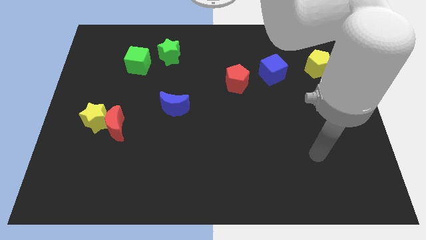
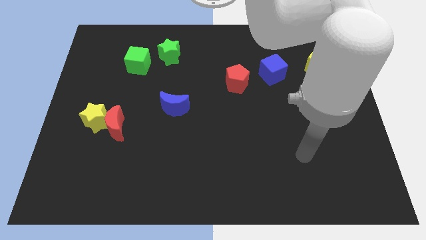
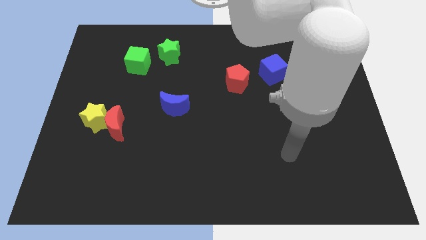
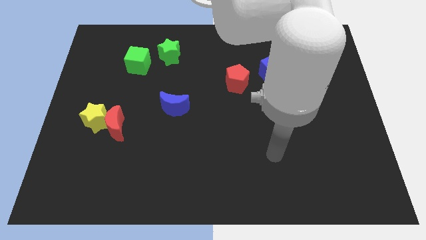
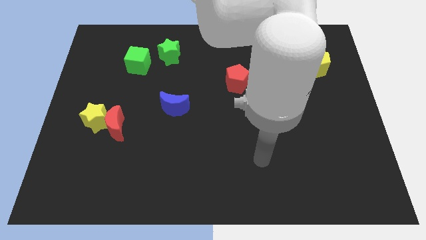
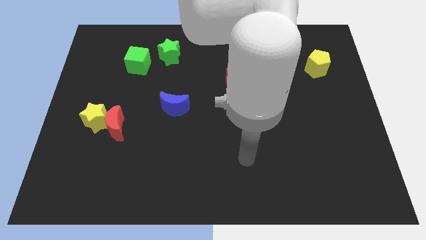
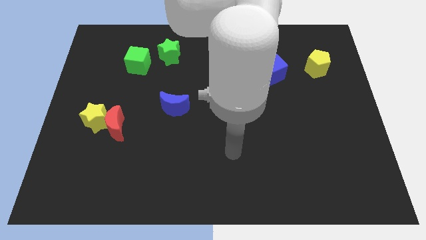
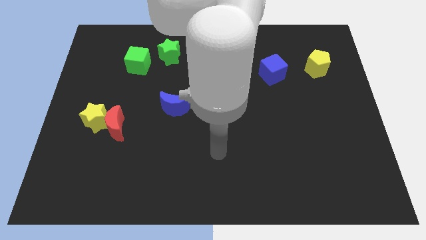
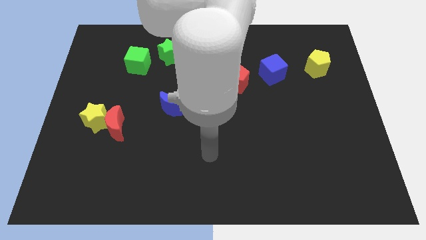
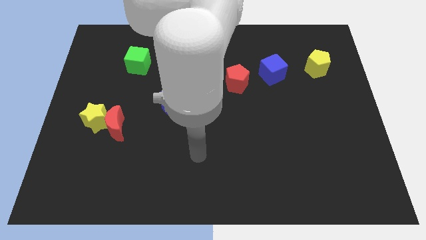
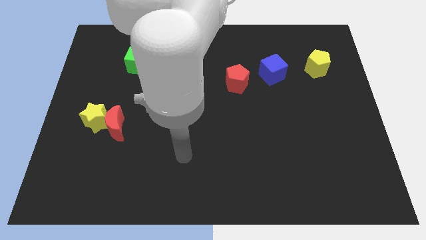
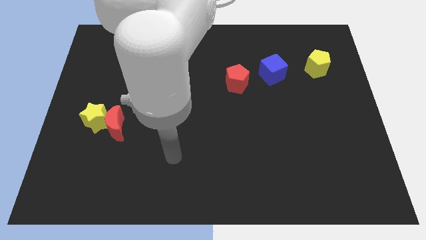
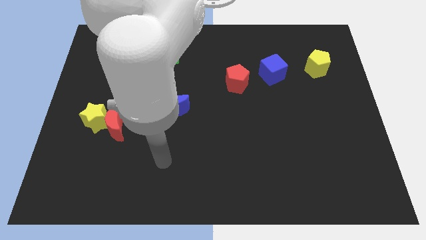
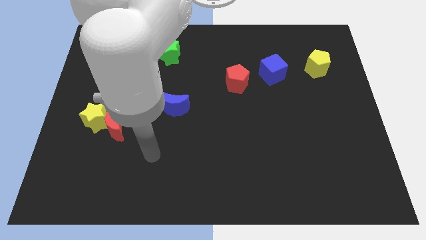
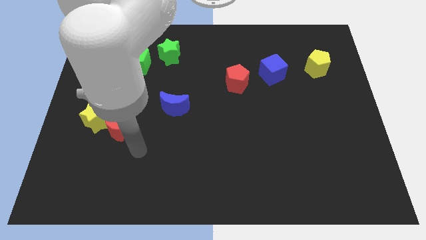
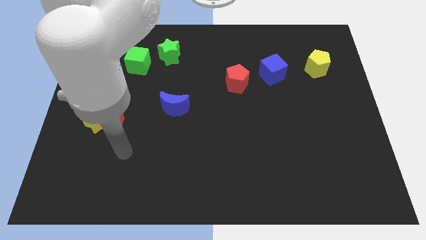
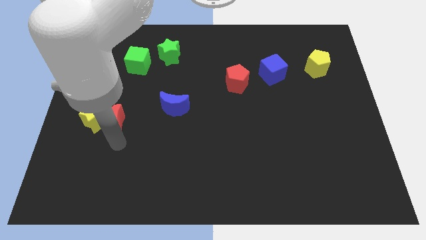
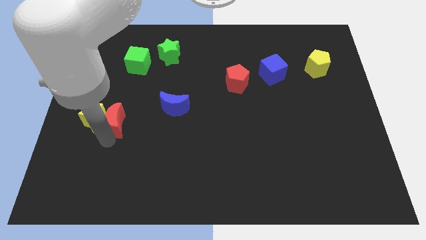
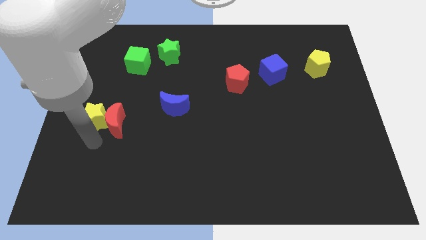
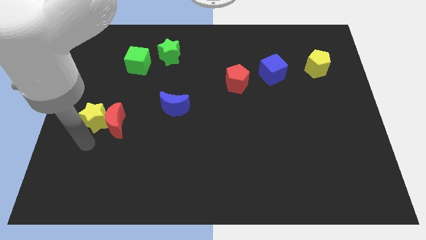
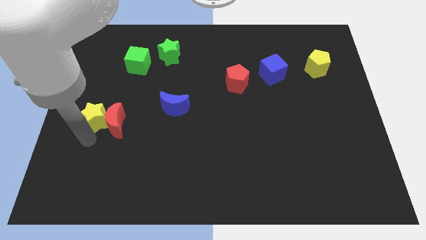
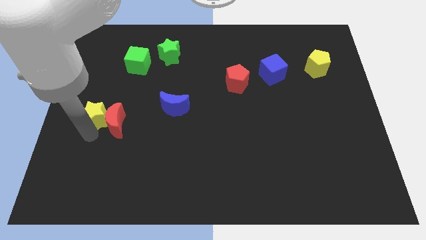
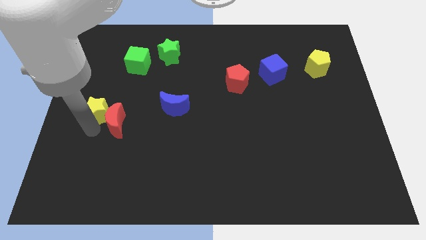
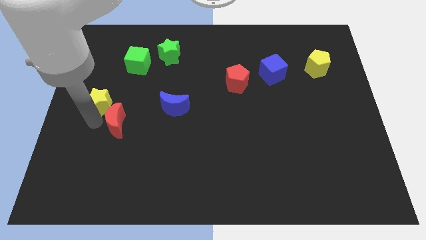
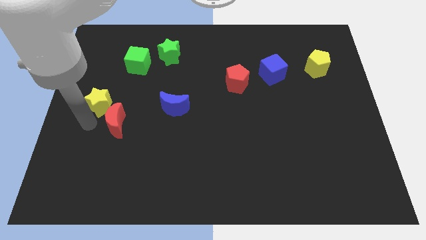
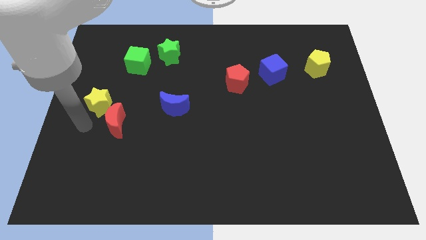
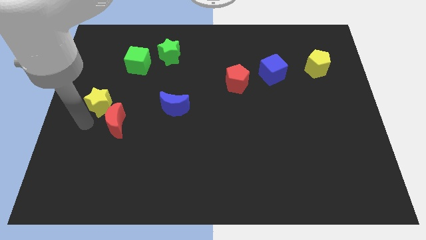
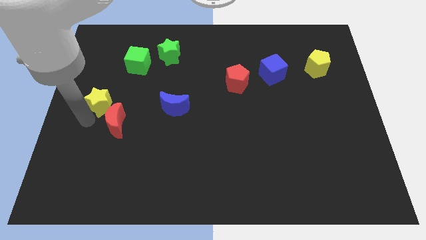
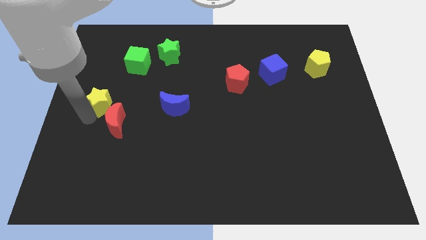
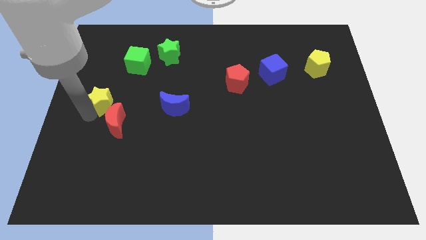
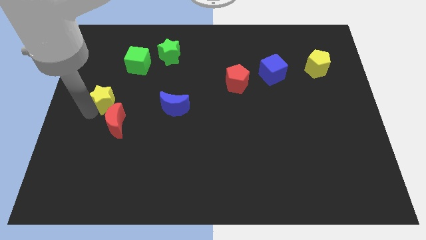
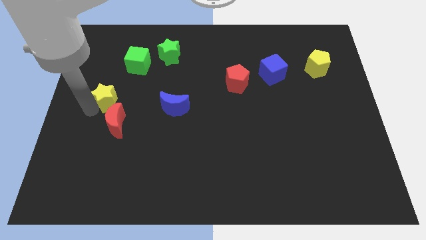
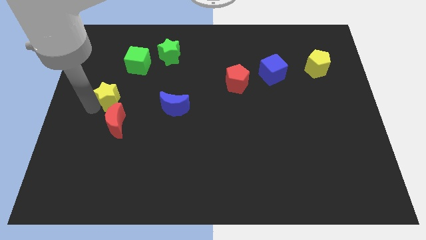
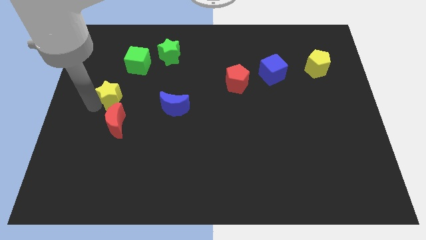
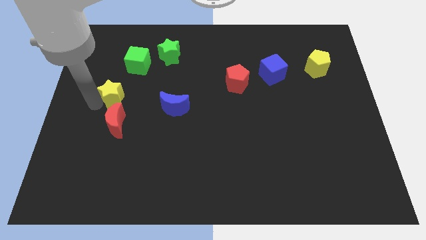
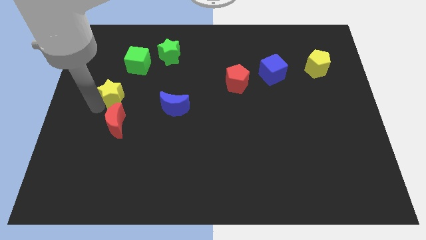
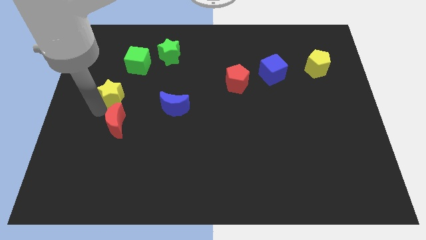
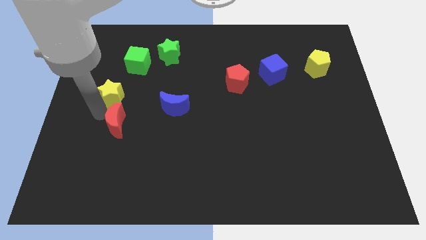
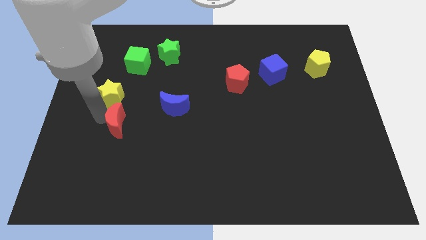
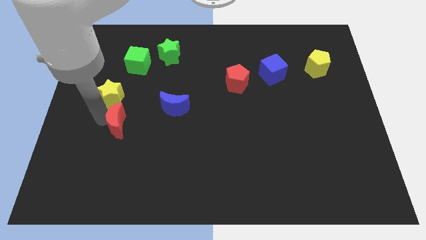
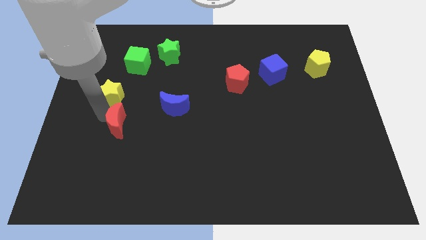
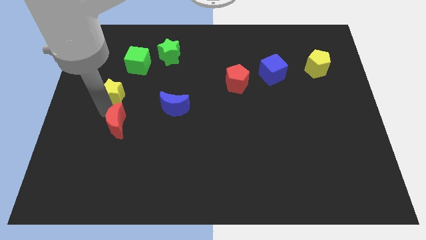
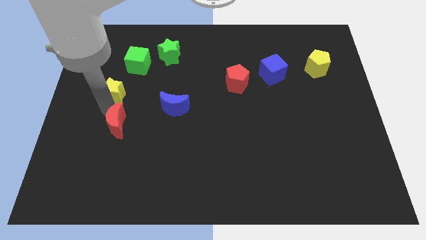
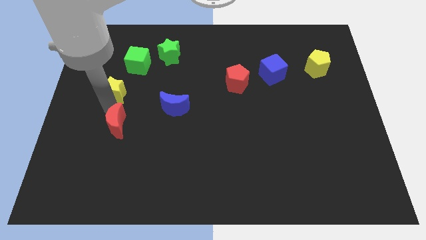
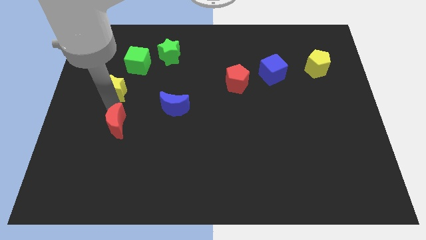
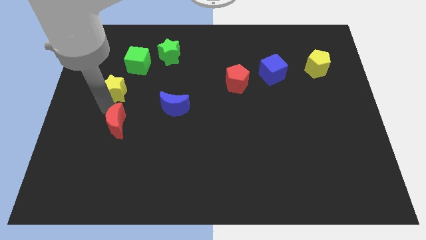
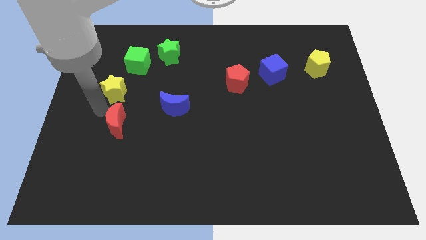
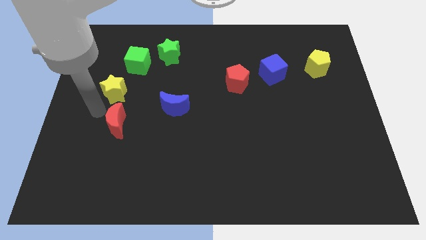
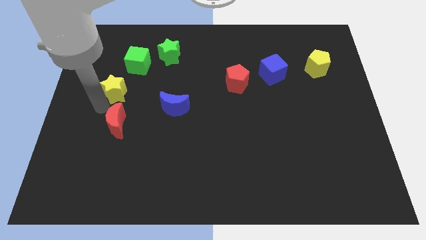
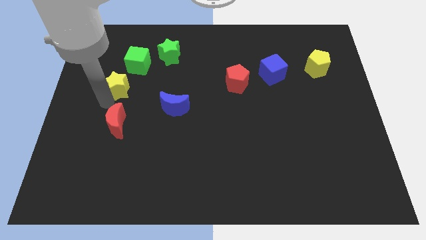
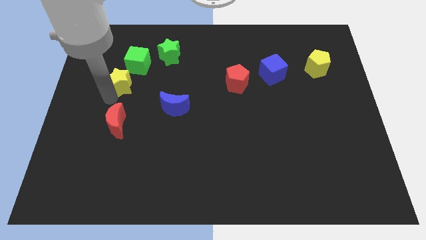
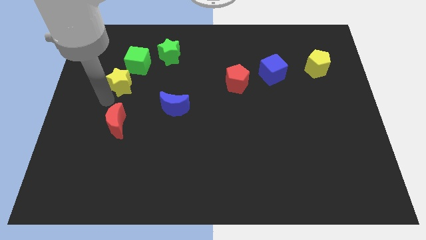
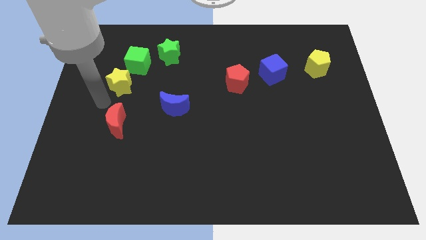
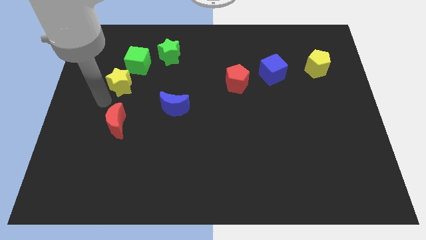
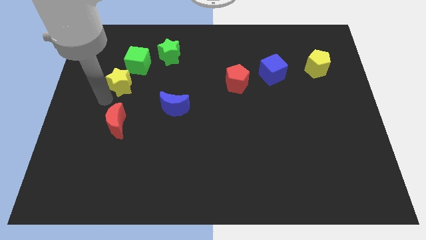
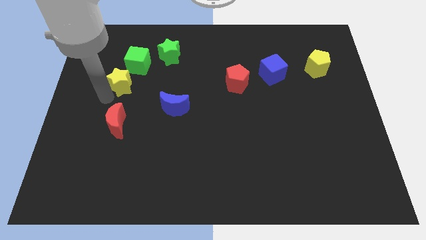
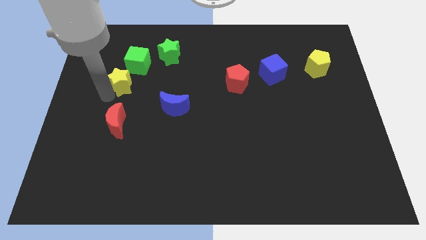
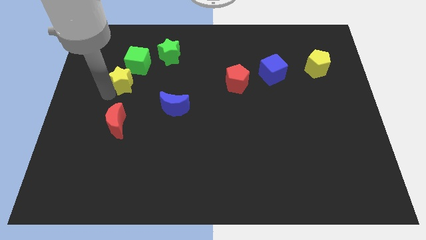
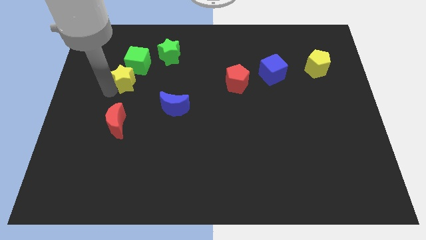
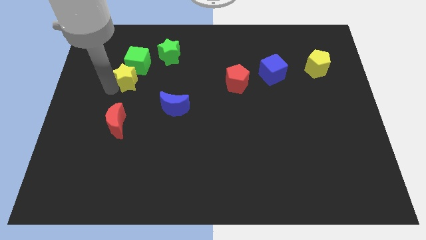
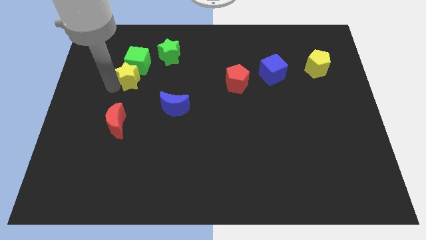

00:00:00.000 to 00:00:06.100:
put the yellow star close to the green cube

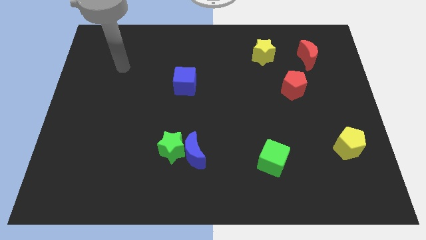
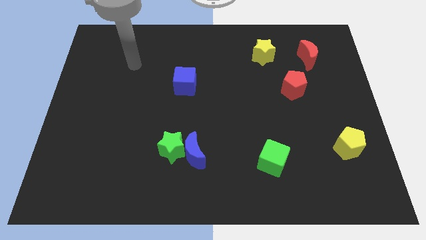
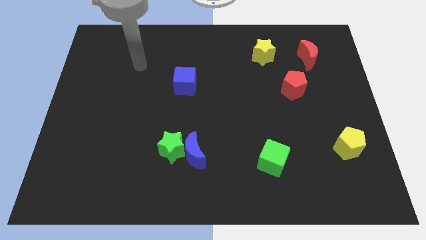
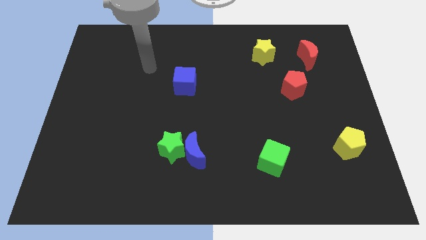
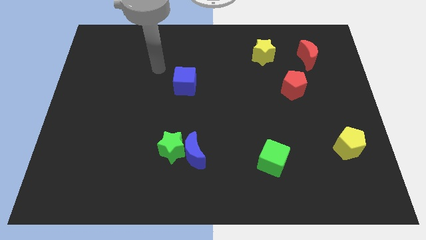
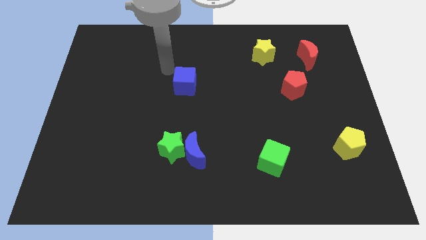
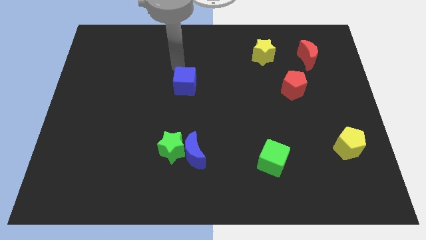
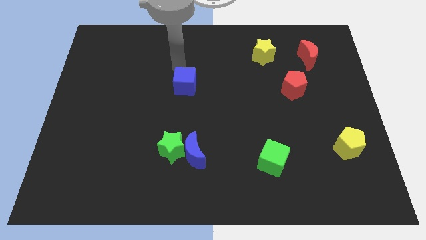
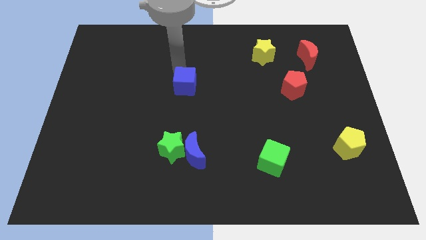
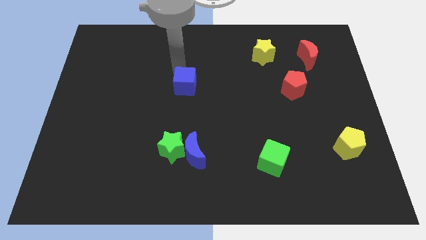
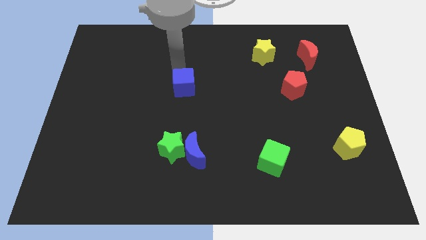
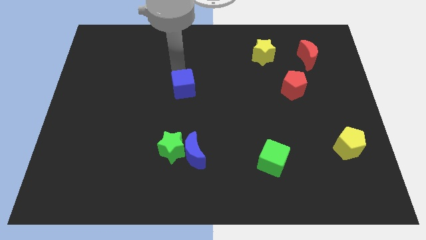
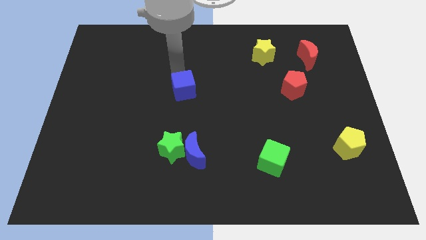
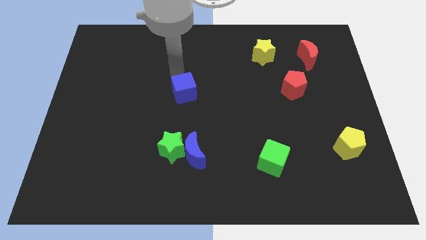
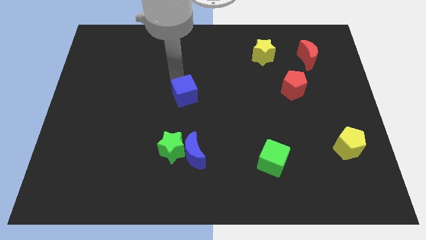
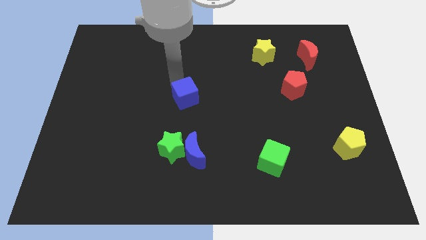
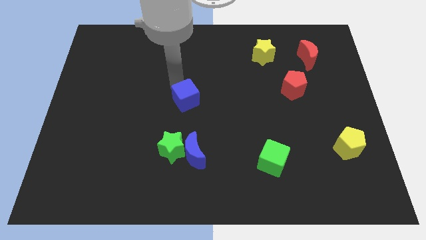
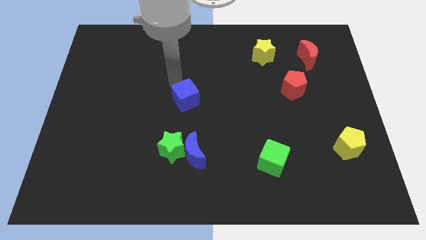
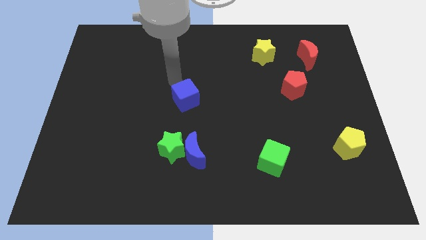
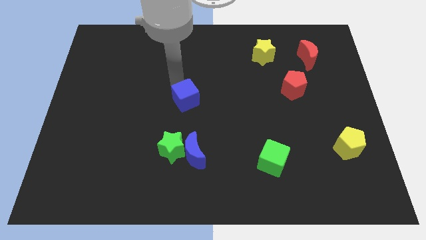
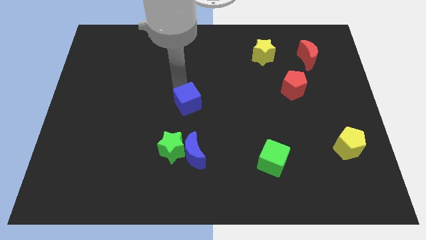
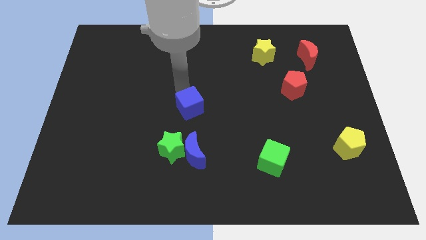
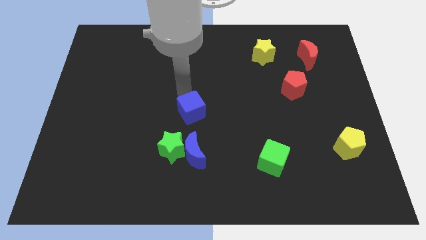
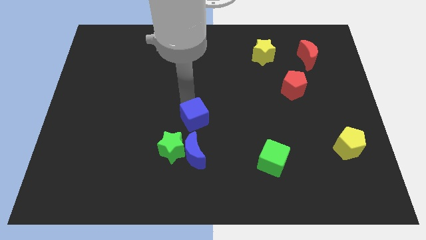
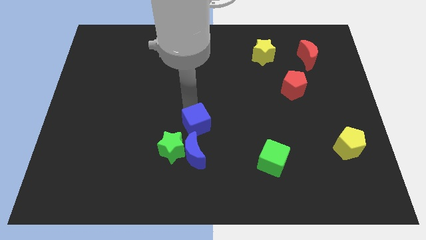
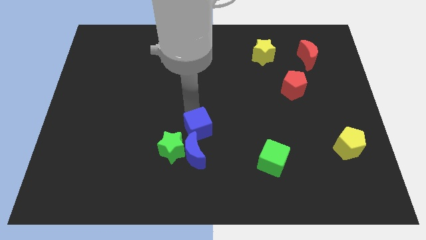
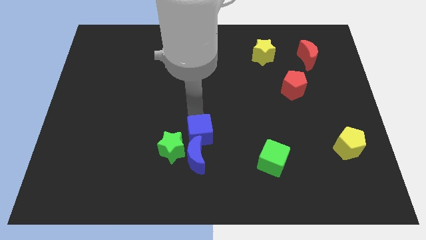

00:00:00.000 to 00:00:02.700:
push the blue cube towards the blue moon
